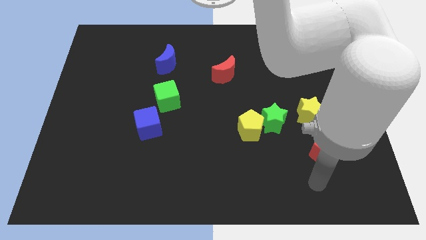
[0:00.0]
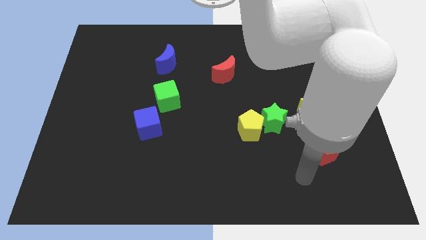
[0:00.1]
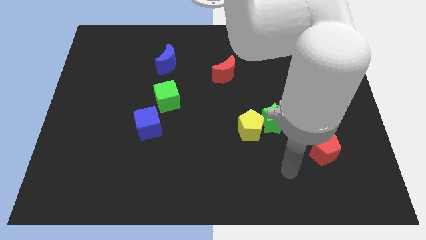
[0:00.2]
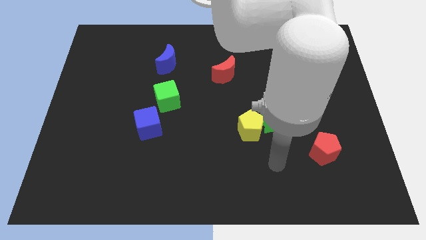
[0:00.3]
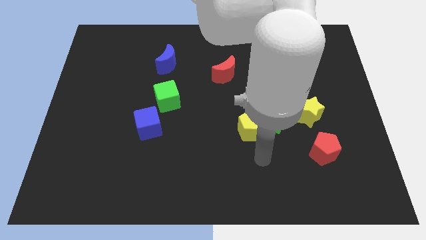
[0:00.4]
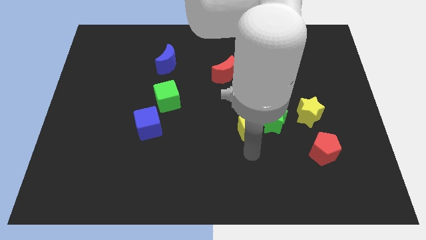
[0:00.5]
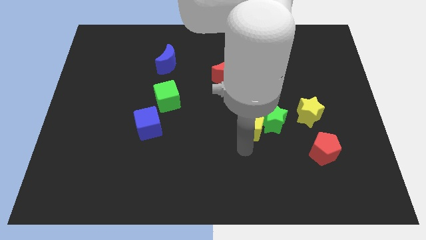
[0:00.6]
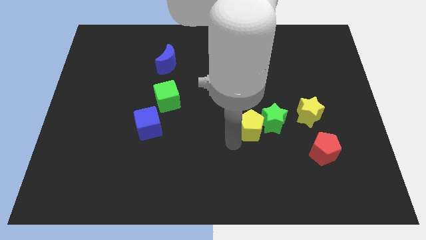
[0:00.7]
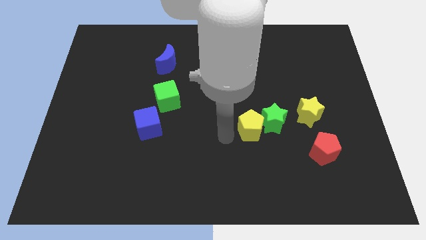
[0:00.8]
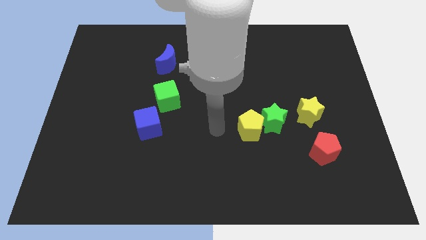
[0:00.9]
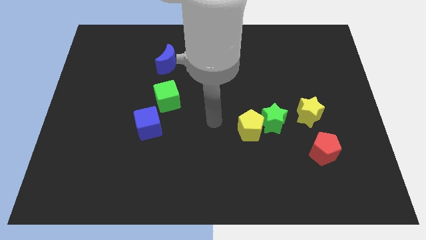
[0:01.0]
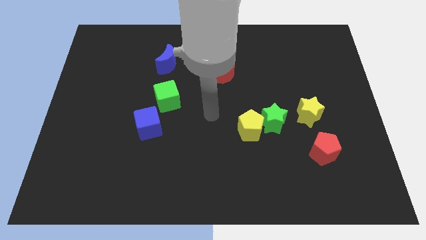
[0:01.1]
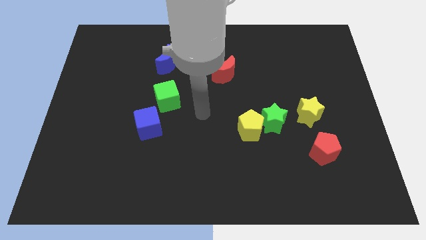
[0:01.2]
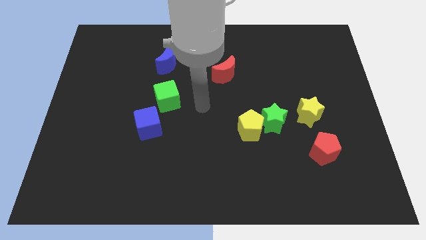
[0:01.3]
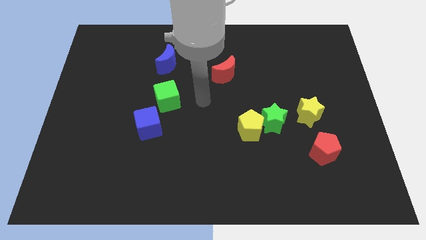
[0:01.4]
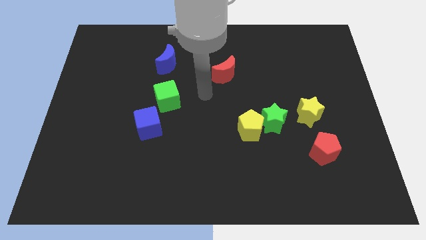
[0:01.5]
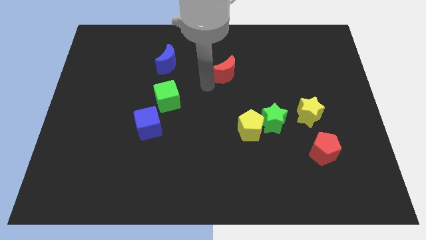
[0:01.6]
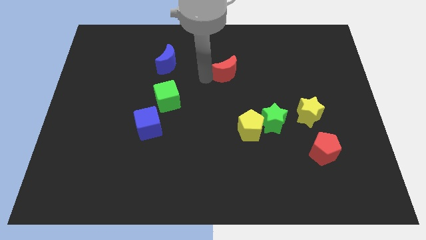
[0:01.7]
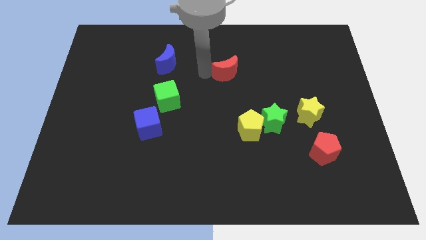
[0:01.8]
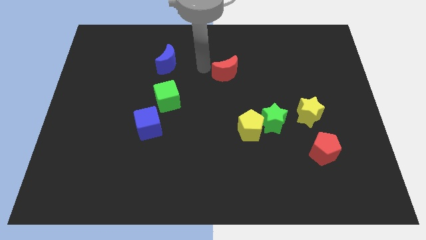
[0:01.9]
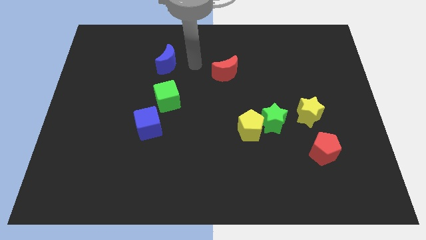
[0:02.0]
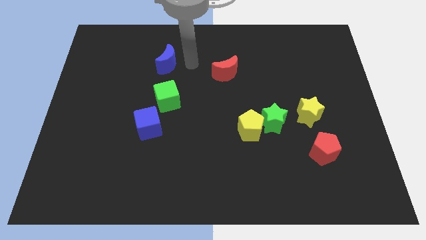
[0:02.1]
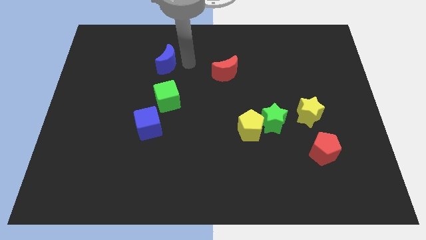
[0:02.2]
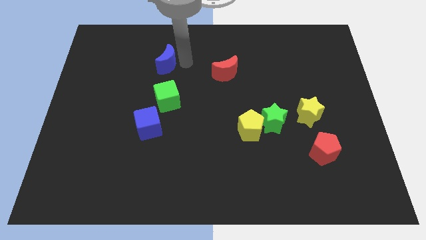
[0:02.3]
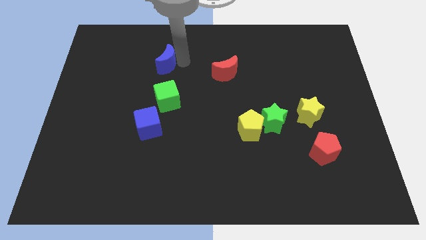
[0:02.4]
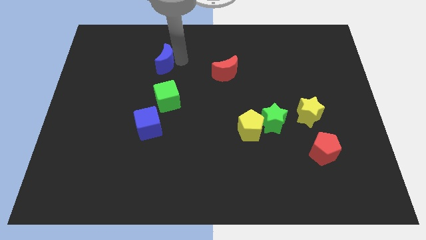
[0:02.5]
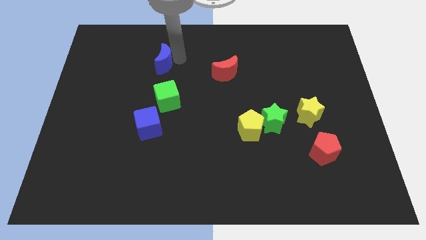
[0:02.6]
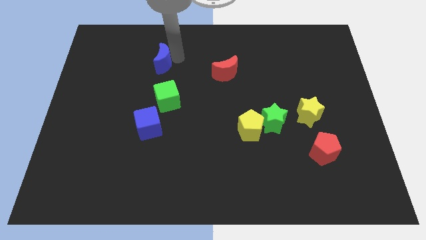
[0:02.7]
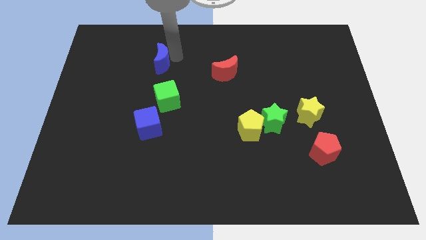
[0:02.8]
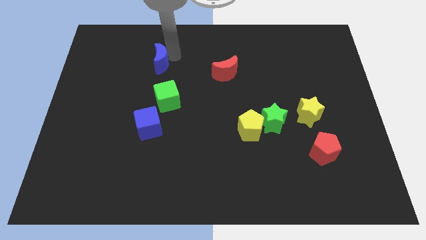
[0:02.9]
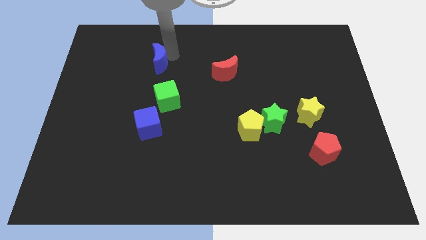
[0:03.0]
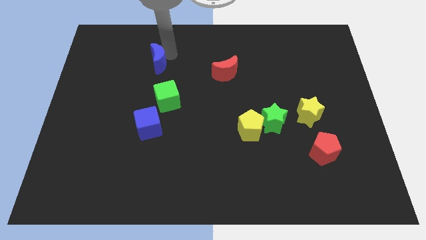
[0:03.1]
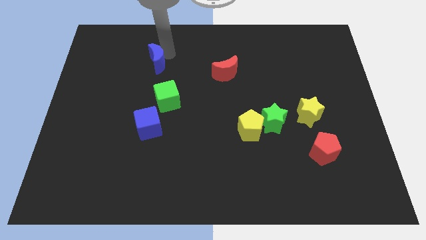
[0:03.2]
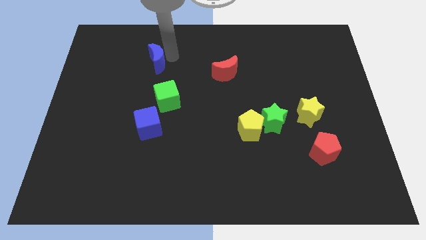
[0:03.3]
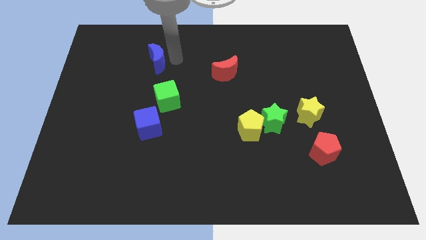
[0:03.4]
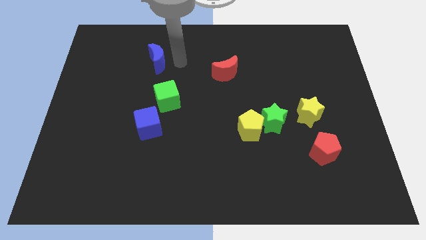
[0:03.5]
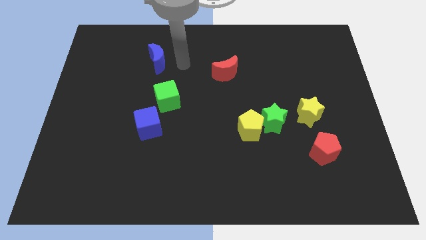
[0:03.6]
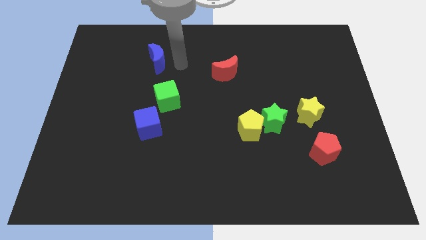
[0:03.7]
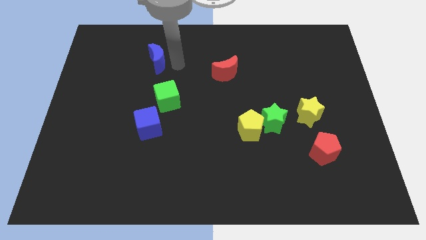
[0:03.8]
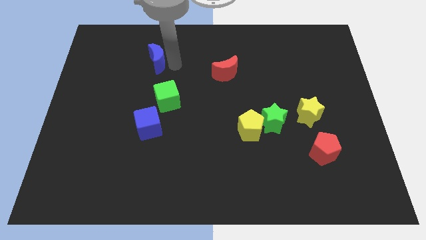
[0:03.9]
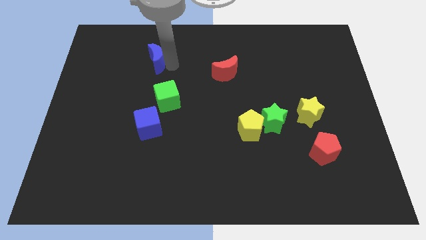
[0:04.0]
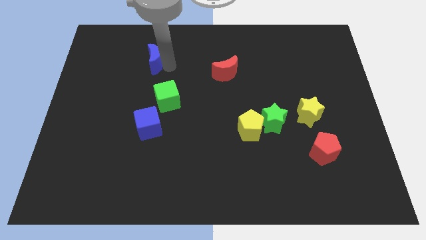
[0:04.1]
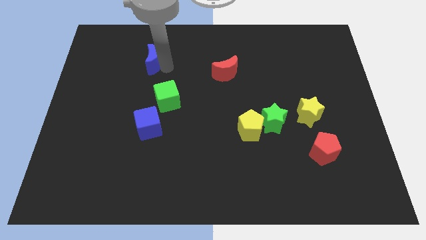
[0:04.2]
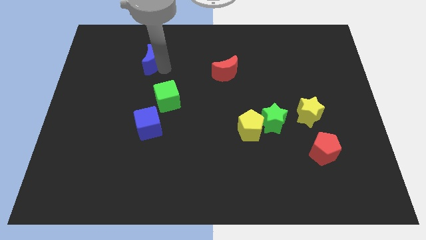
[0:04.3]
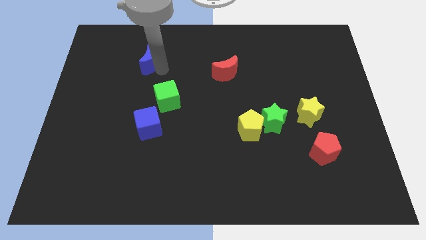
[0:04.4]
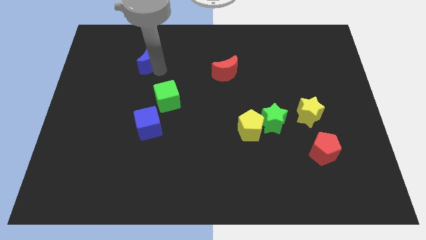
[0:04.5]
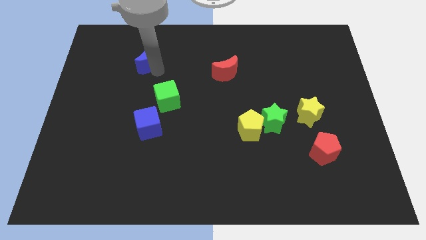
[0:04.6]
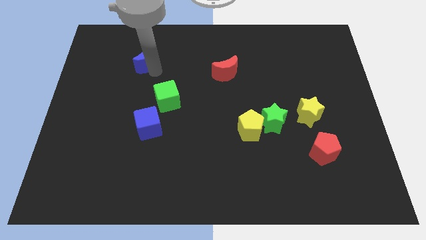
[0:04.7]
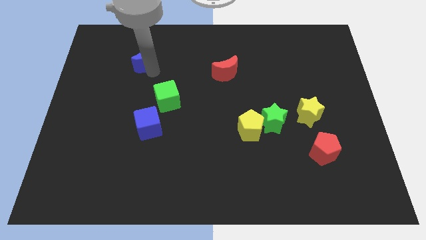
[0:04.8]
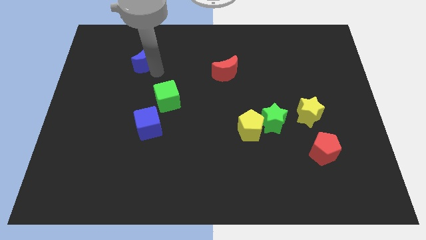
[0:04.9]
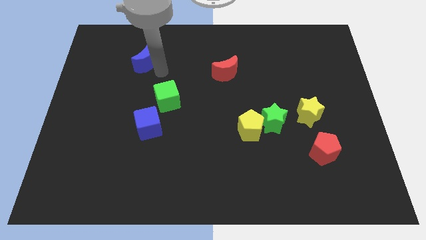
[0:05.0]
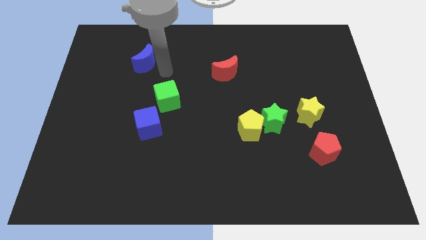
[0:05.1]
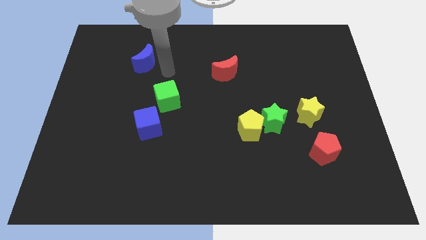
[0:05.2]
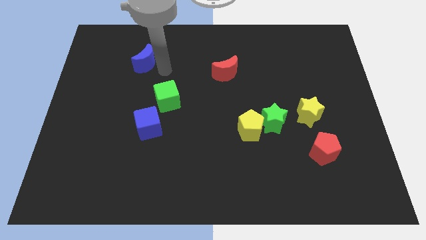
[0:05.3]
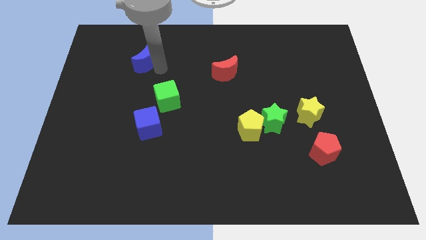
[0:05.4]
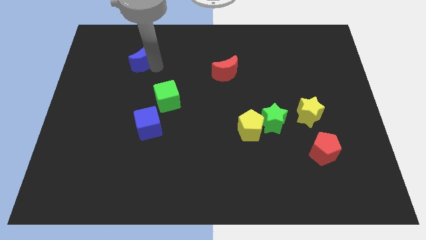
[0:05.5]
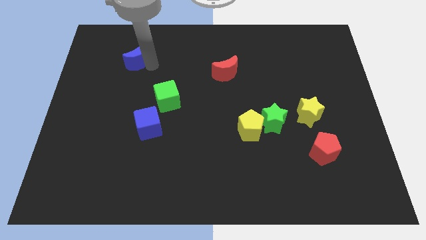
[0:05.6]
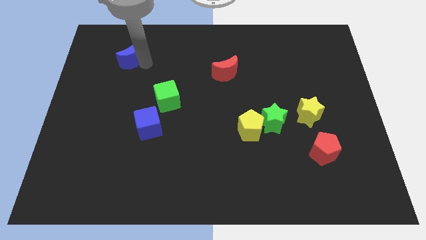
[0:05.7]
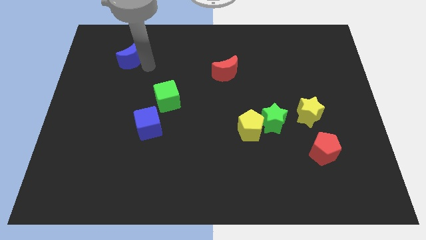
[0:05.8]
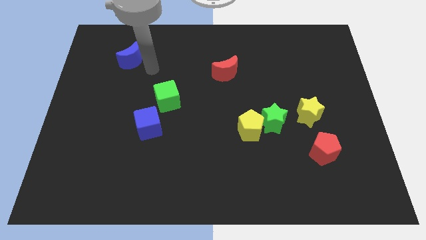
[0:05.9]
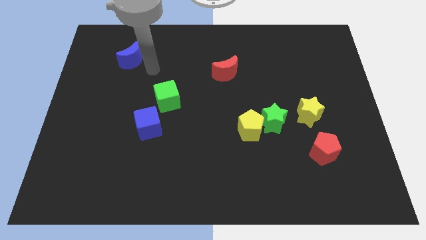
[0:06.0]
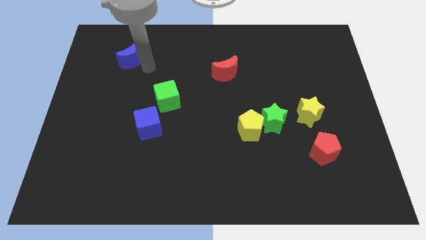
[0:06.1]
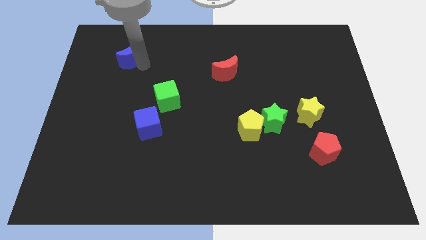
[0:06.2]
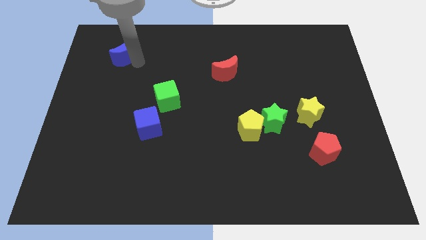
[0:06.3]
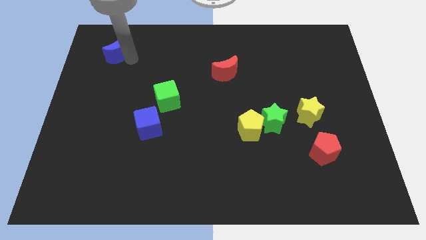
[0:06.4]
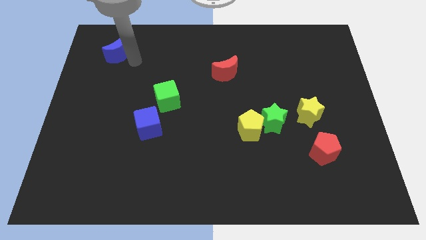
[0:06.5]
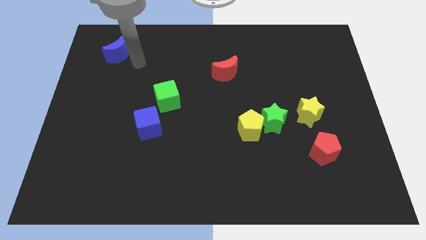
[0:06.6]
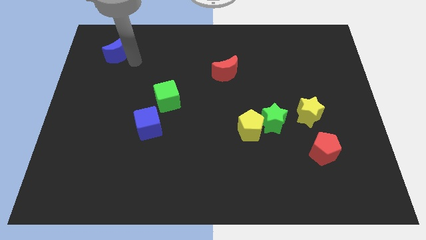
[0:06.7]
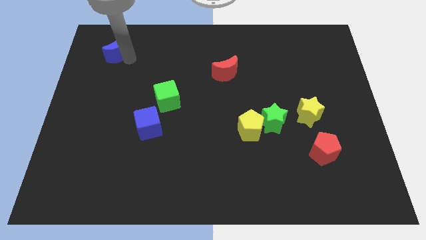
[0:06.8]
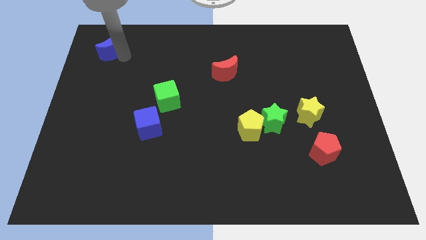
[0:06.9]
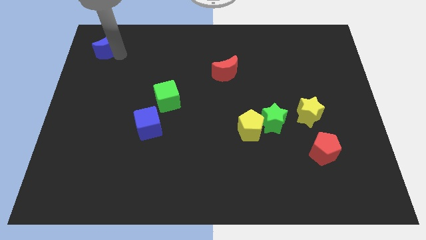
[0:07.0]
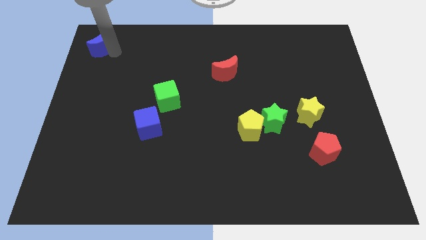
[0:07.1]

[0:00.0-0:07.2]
slide the blue moon to the top left corner
